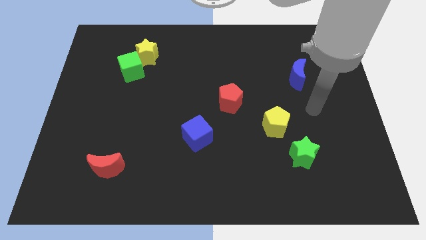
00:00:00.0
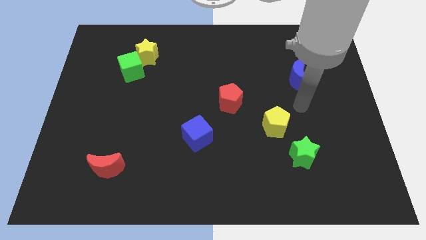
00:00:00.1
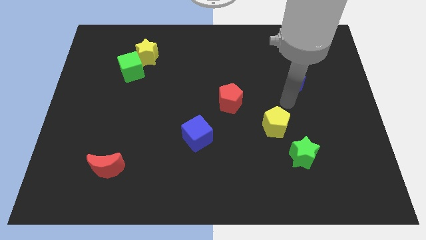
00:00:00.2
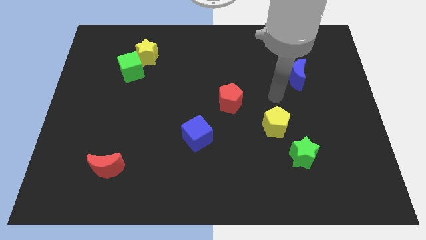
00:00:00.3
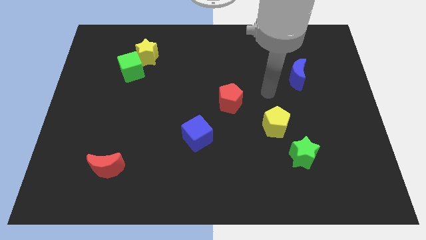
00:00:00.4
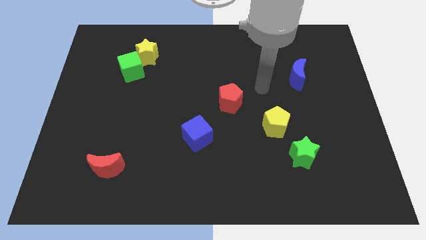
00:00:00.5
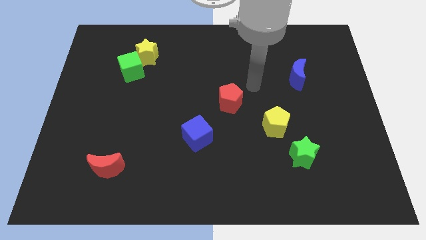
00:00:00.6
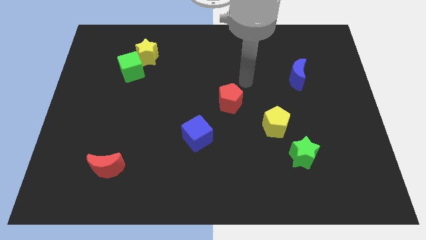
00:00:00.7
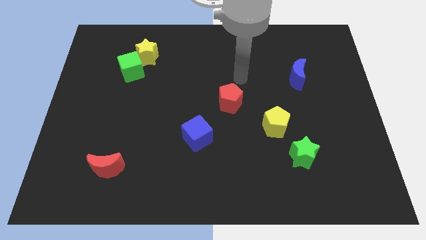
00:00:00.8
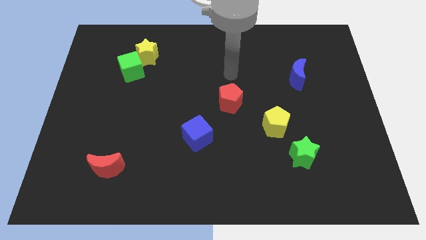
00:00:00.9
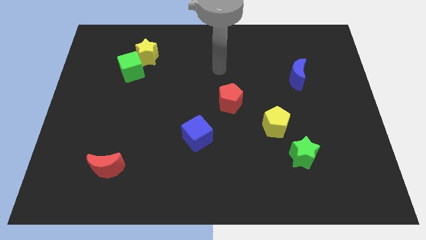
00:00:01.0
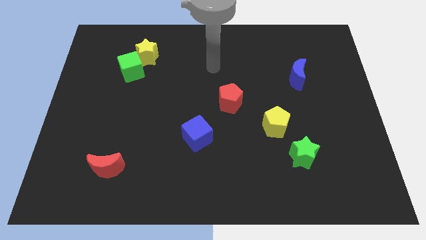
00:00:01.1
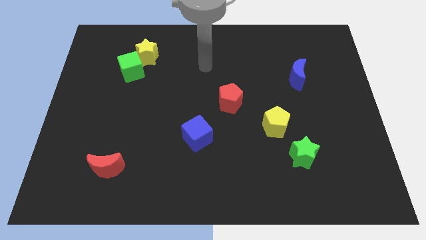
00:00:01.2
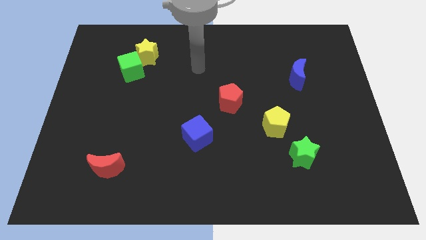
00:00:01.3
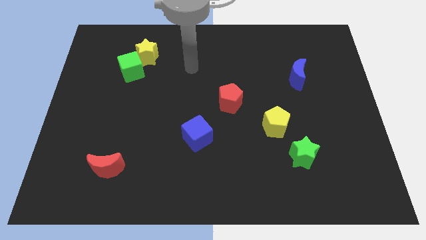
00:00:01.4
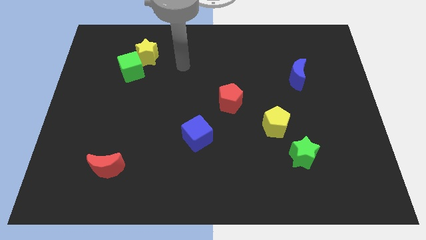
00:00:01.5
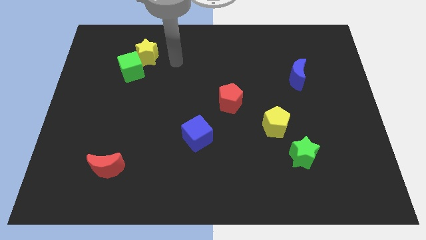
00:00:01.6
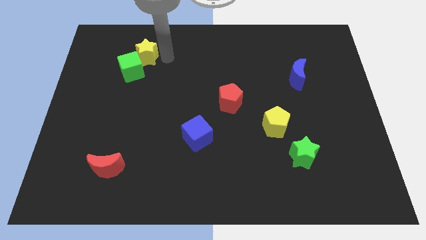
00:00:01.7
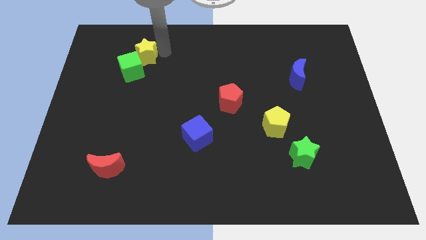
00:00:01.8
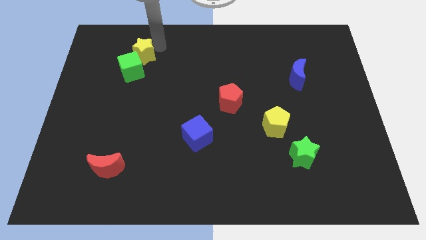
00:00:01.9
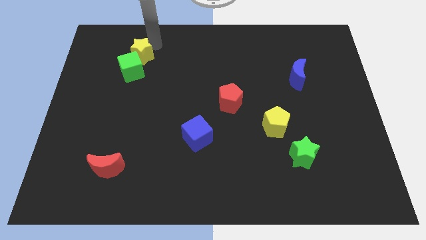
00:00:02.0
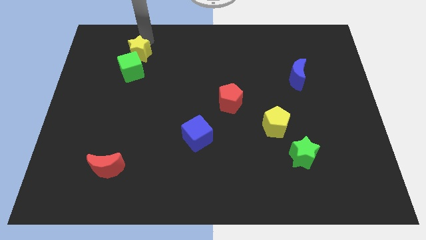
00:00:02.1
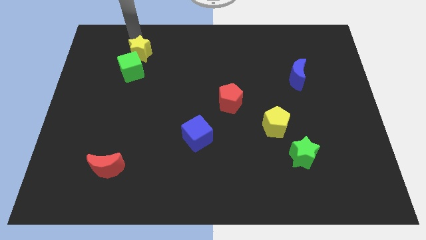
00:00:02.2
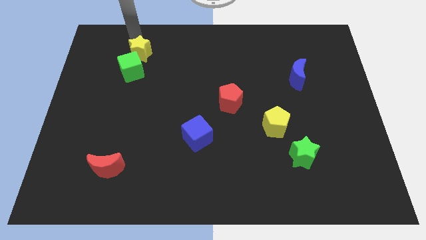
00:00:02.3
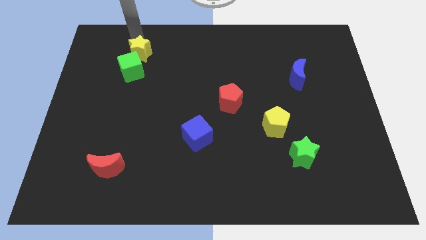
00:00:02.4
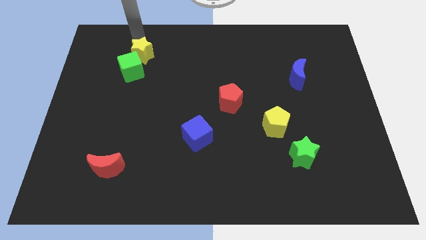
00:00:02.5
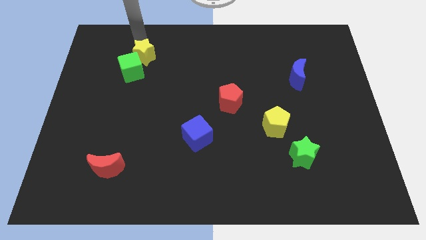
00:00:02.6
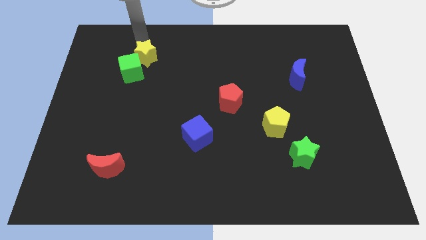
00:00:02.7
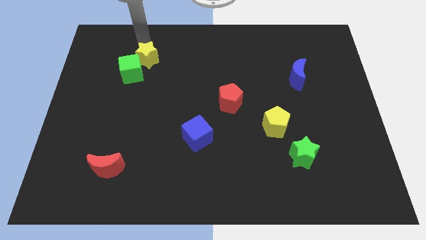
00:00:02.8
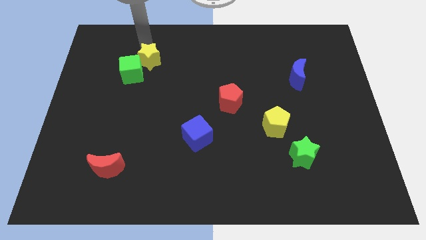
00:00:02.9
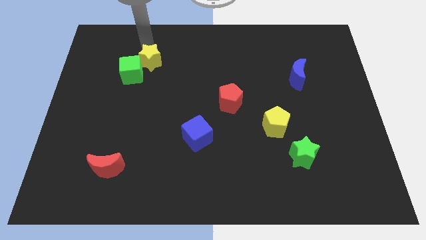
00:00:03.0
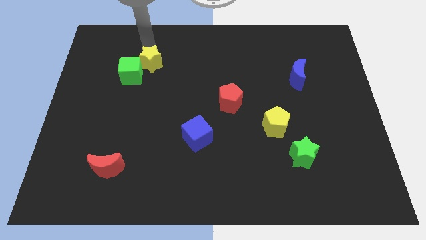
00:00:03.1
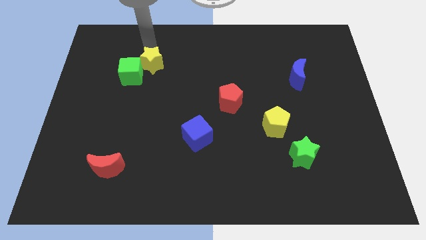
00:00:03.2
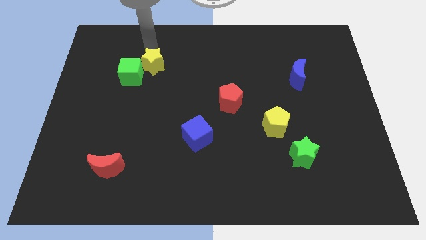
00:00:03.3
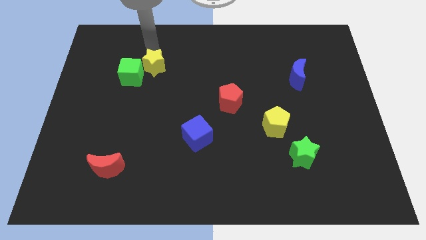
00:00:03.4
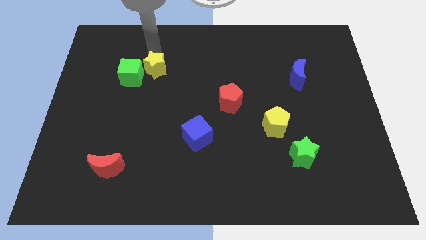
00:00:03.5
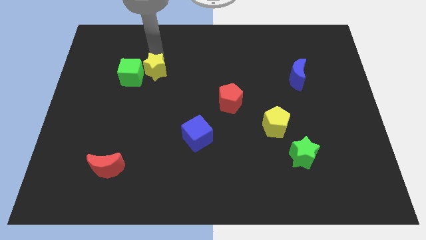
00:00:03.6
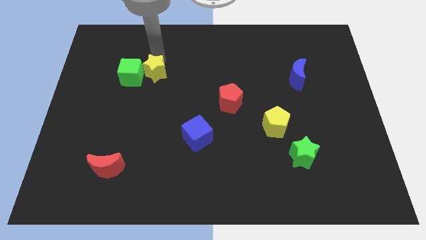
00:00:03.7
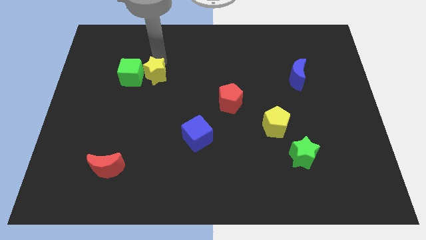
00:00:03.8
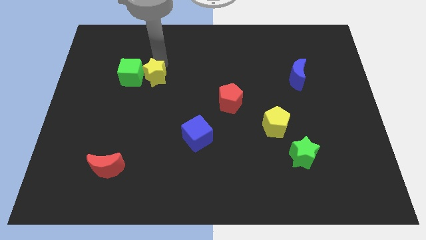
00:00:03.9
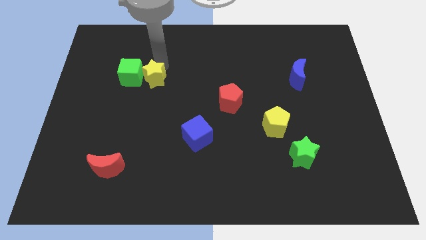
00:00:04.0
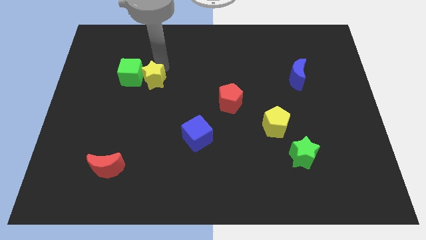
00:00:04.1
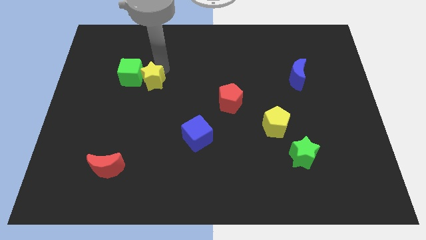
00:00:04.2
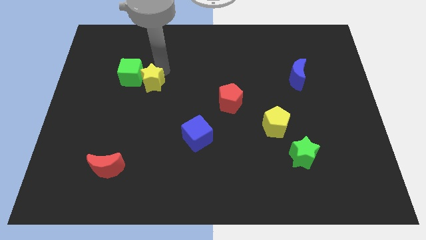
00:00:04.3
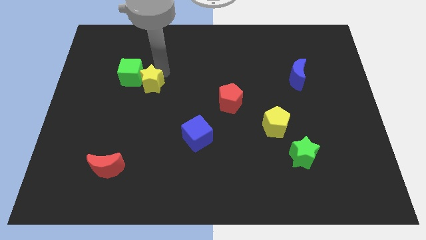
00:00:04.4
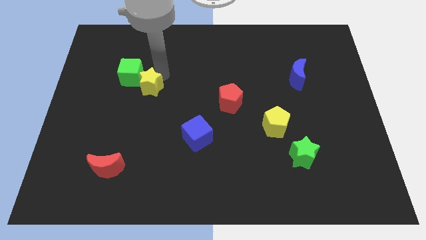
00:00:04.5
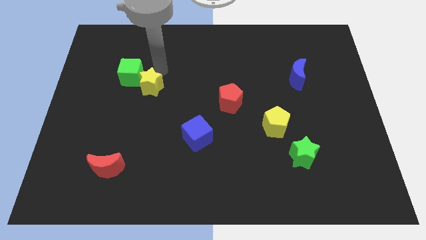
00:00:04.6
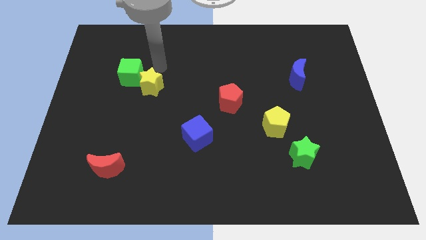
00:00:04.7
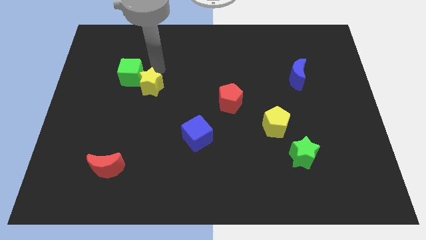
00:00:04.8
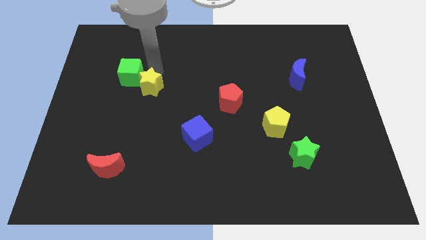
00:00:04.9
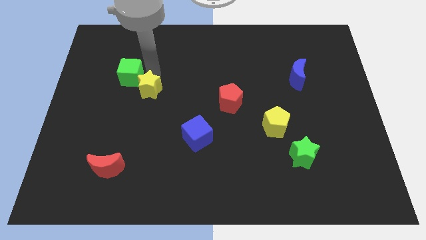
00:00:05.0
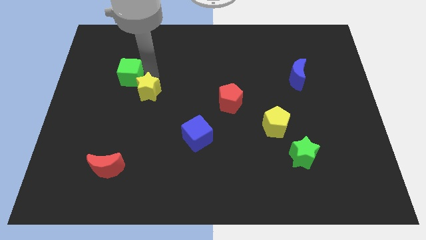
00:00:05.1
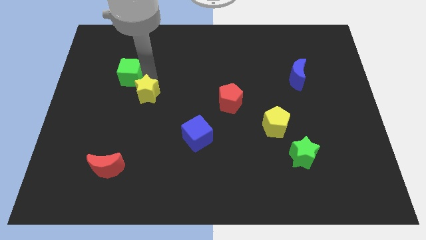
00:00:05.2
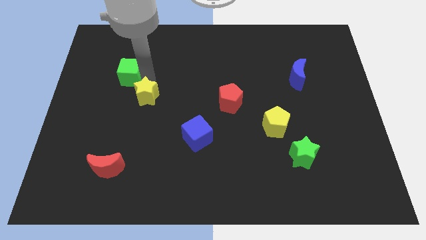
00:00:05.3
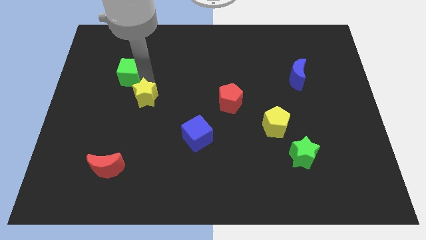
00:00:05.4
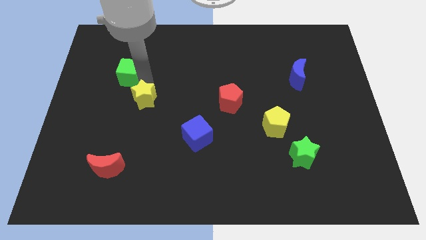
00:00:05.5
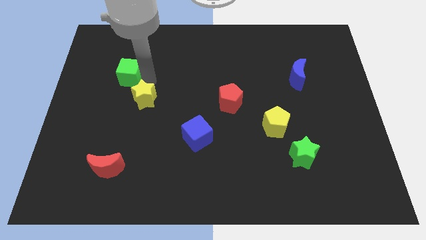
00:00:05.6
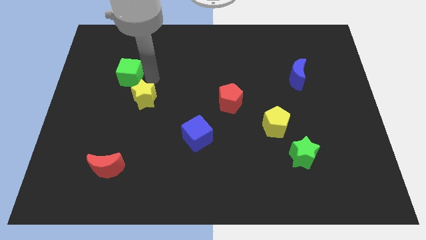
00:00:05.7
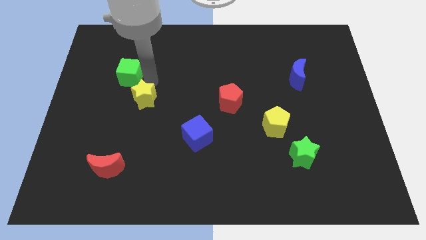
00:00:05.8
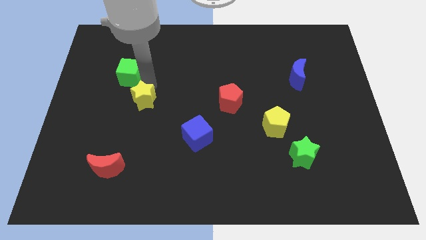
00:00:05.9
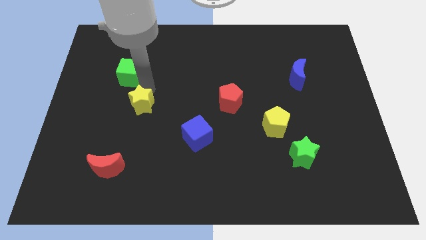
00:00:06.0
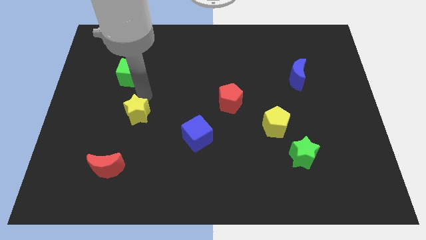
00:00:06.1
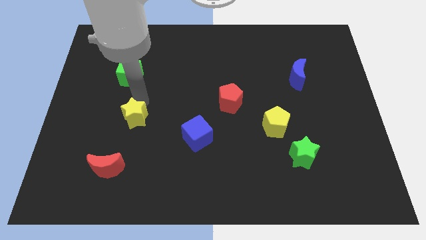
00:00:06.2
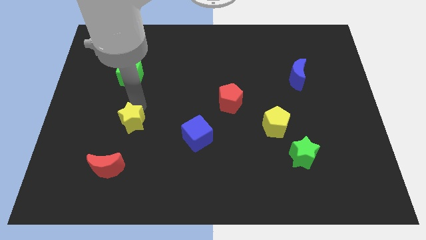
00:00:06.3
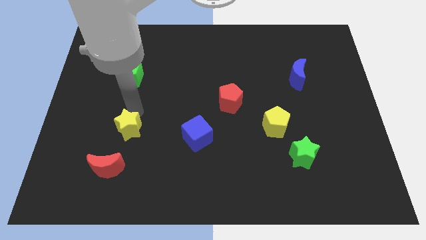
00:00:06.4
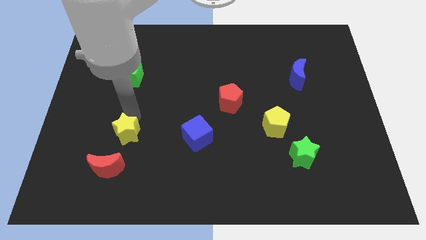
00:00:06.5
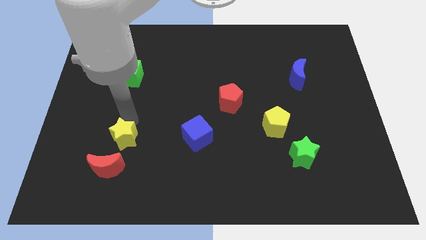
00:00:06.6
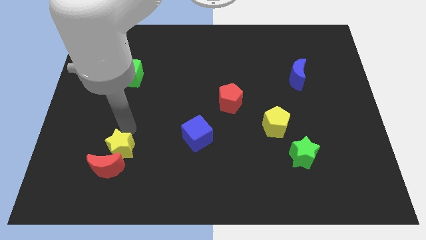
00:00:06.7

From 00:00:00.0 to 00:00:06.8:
slide the yellow star to the red moon

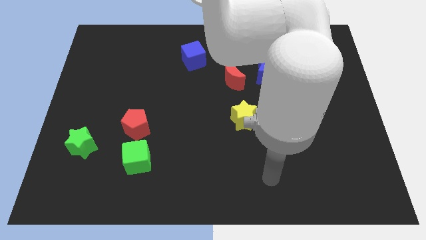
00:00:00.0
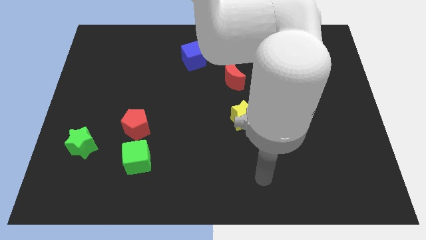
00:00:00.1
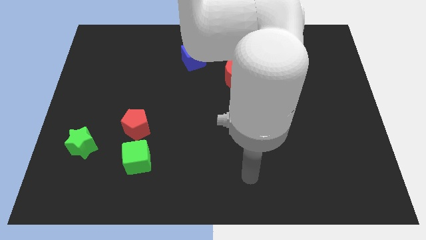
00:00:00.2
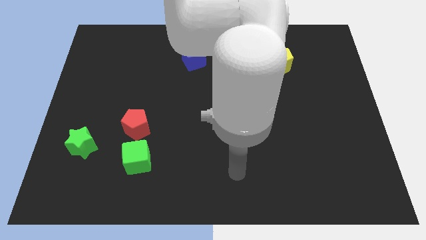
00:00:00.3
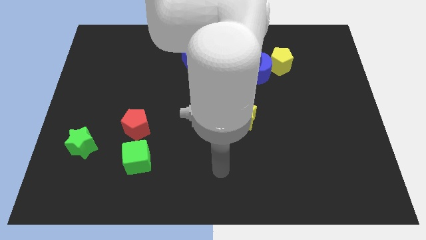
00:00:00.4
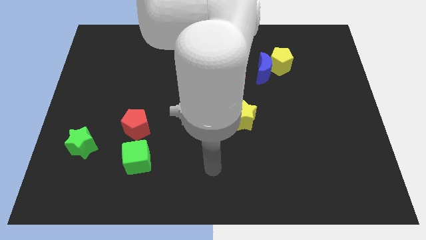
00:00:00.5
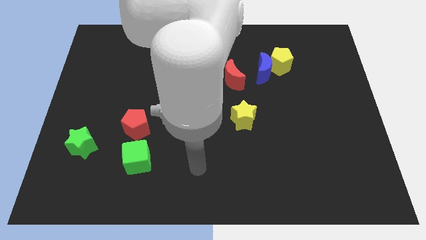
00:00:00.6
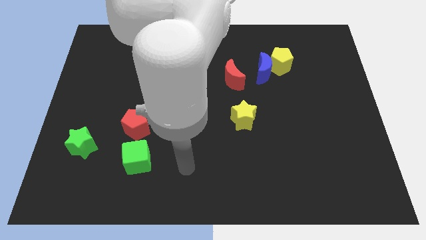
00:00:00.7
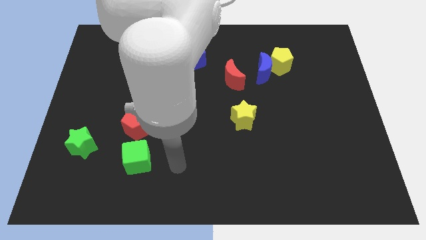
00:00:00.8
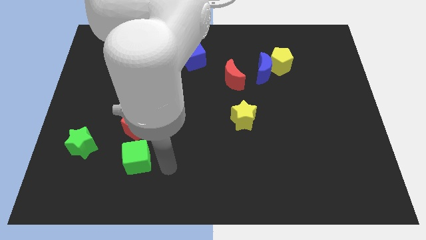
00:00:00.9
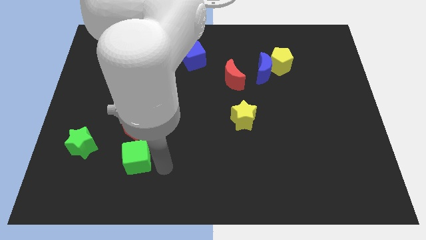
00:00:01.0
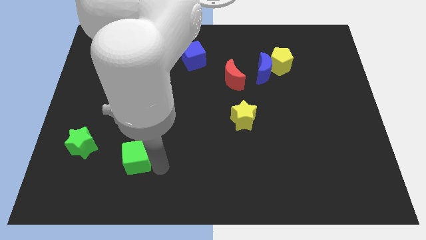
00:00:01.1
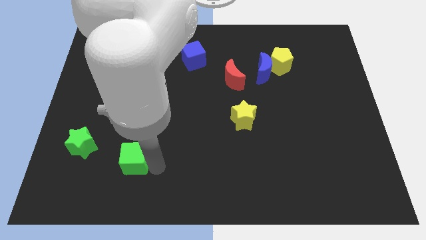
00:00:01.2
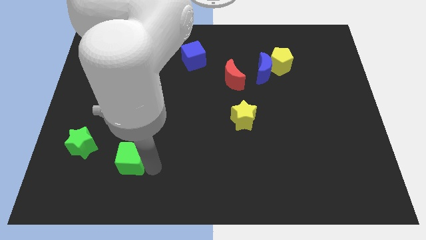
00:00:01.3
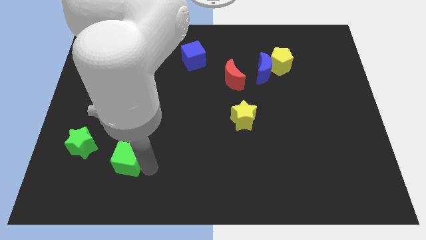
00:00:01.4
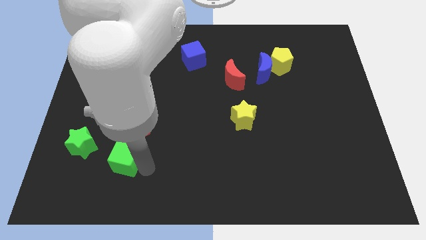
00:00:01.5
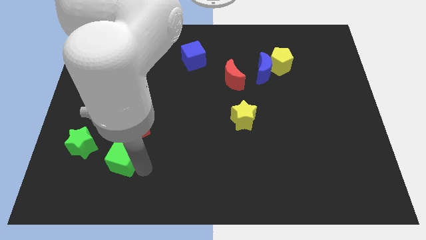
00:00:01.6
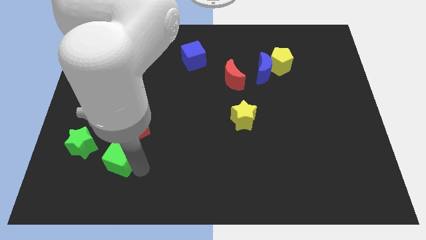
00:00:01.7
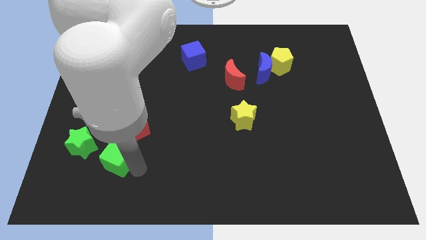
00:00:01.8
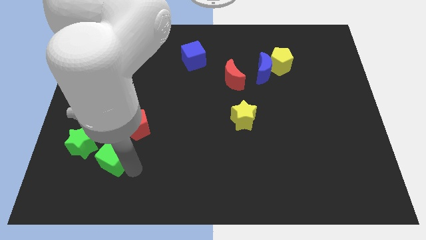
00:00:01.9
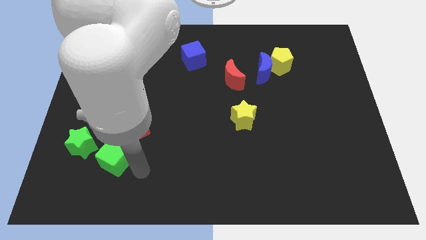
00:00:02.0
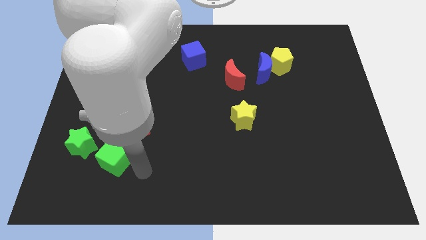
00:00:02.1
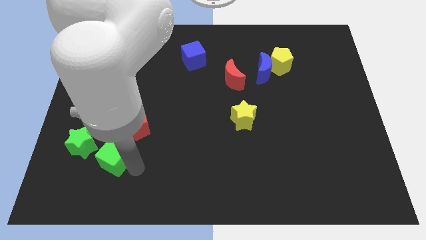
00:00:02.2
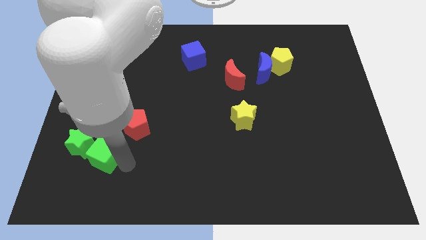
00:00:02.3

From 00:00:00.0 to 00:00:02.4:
move the green cube to the green star
